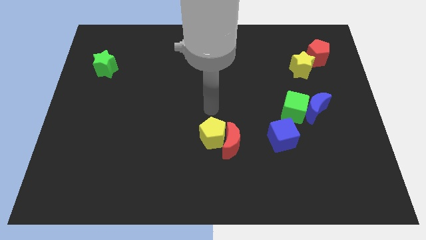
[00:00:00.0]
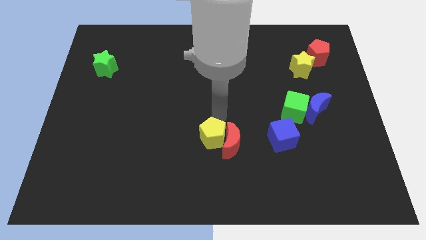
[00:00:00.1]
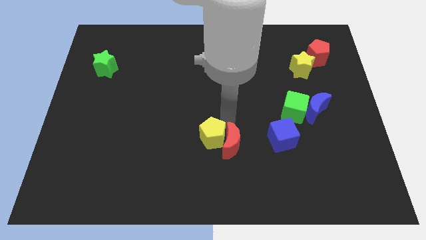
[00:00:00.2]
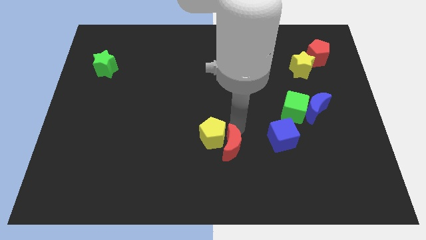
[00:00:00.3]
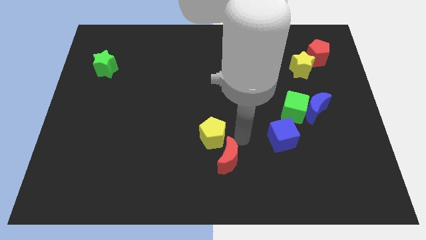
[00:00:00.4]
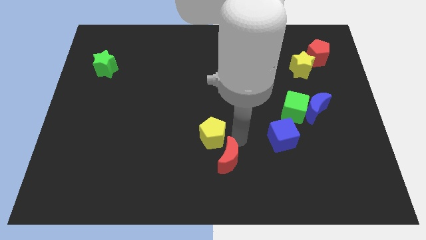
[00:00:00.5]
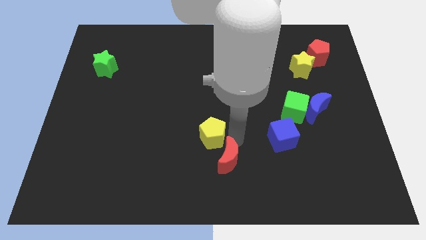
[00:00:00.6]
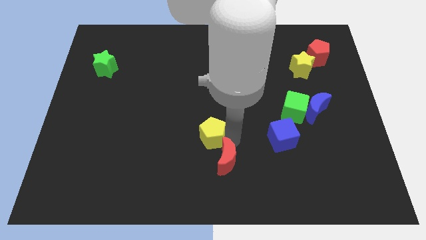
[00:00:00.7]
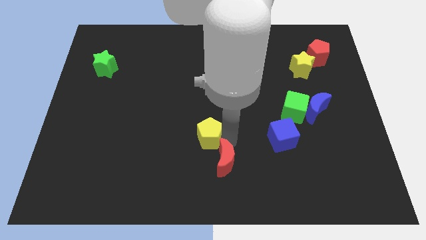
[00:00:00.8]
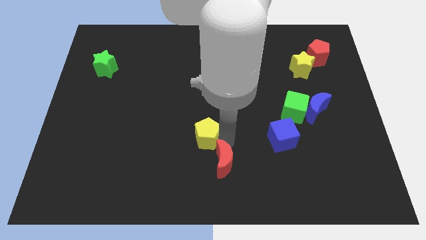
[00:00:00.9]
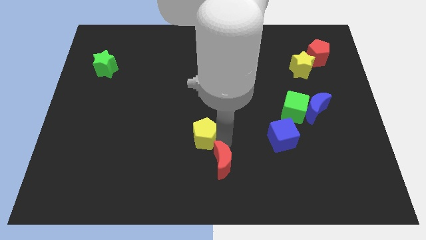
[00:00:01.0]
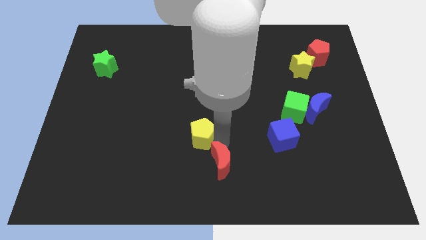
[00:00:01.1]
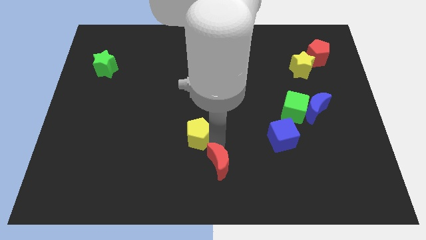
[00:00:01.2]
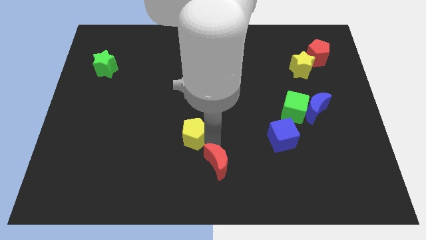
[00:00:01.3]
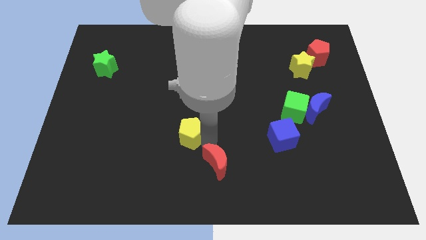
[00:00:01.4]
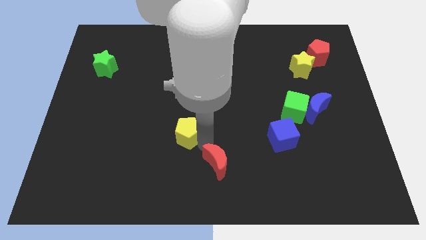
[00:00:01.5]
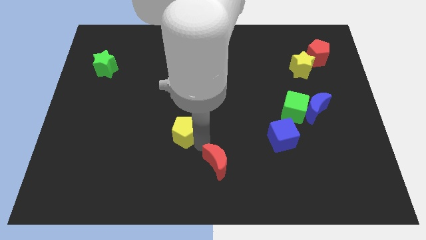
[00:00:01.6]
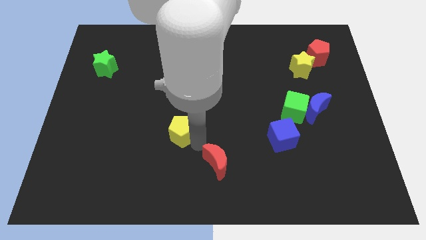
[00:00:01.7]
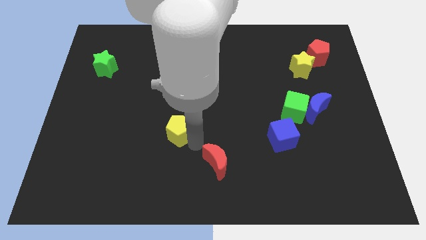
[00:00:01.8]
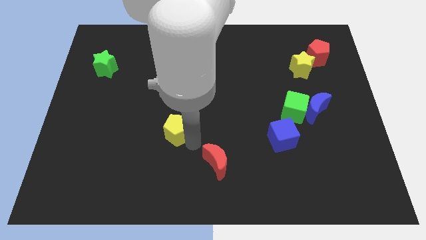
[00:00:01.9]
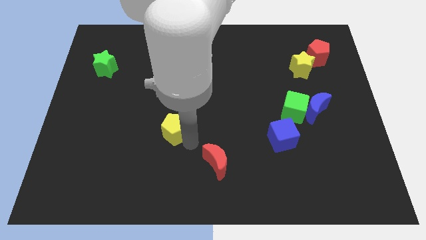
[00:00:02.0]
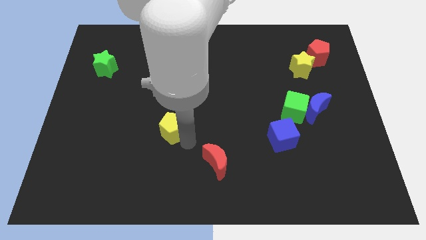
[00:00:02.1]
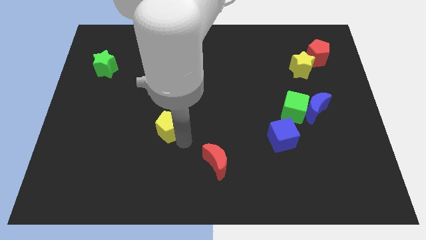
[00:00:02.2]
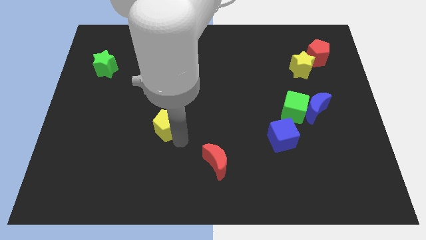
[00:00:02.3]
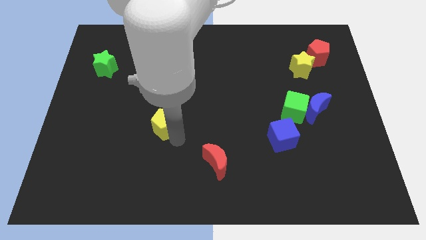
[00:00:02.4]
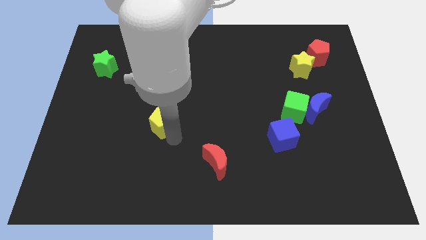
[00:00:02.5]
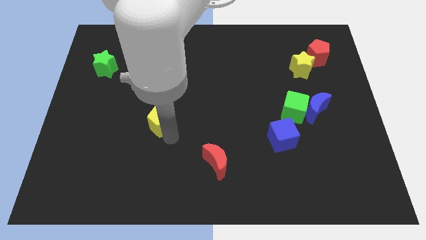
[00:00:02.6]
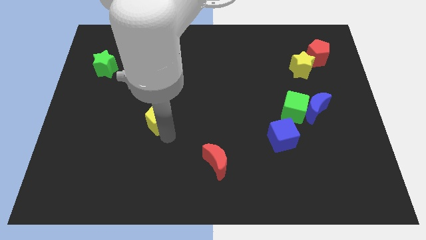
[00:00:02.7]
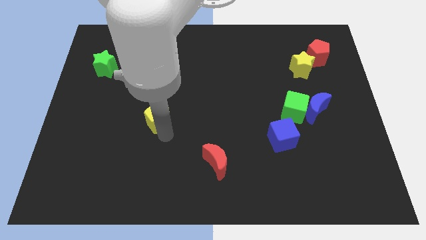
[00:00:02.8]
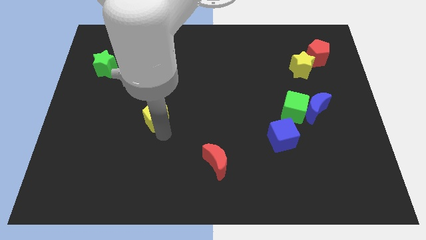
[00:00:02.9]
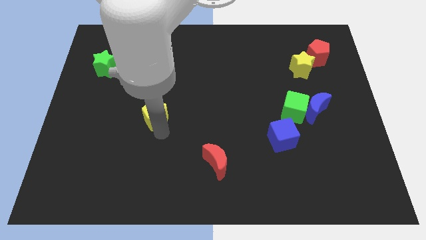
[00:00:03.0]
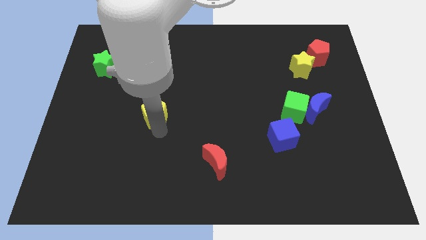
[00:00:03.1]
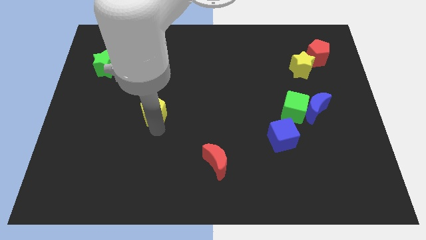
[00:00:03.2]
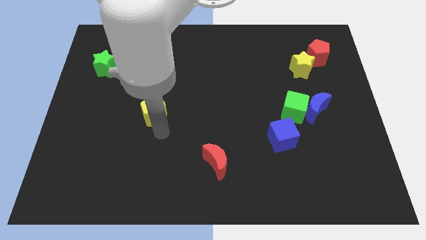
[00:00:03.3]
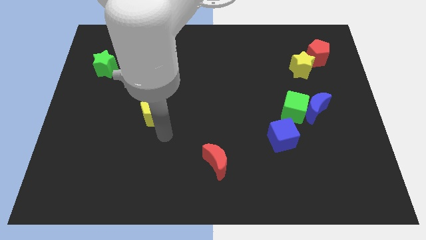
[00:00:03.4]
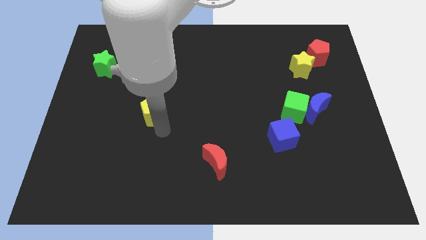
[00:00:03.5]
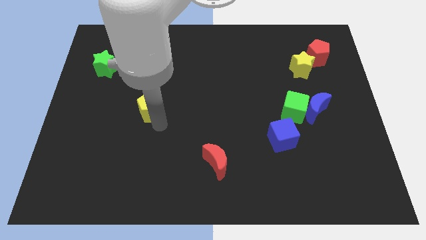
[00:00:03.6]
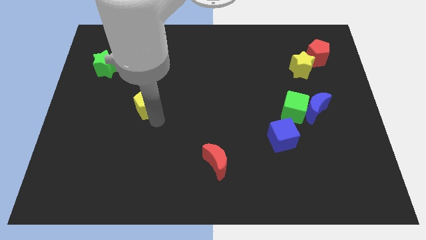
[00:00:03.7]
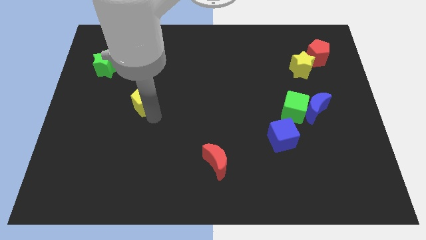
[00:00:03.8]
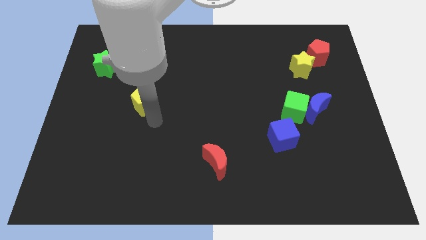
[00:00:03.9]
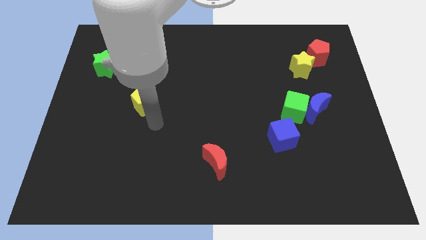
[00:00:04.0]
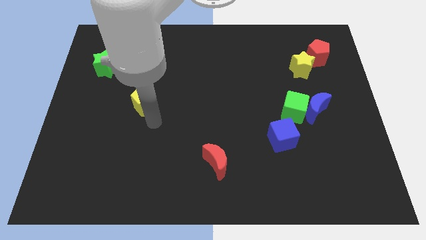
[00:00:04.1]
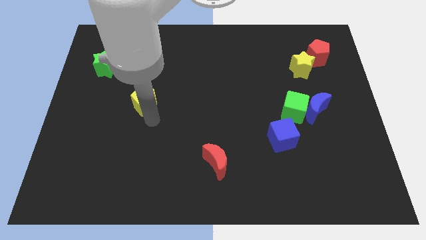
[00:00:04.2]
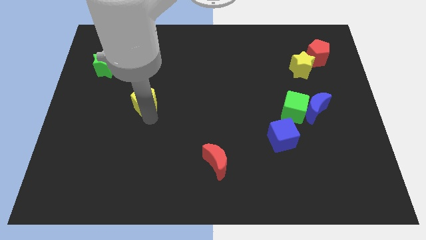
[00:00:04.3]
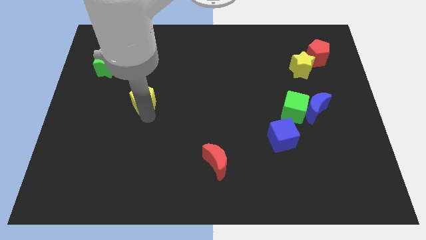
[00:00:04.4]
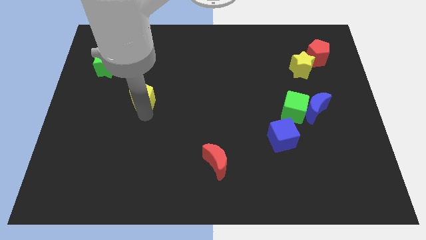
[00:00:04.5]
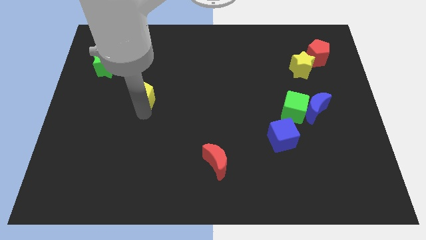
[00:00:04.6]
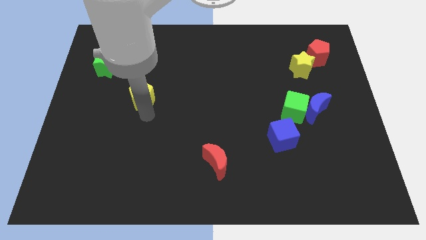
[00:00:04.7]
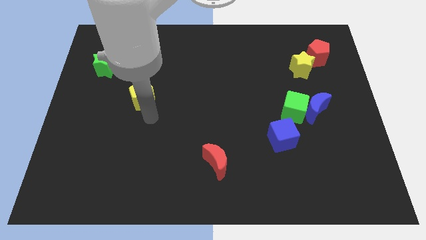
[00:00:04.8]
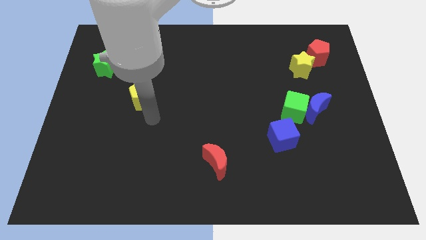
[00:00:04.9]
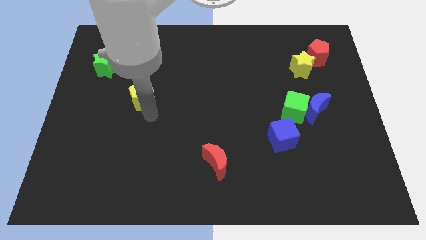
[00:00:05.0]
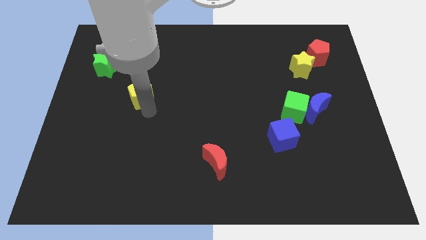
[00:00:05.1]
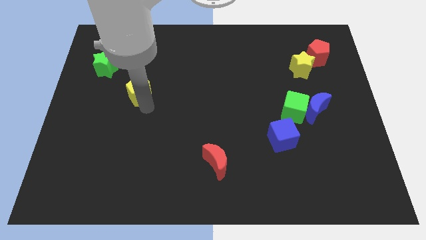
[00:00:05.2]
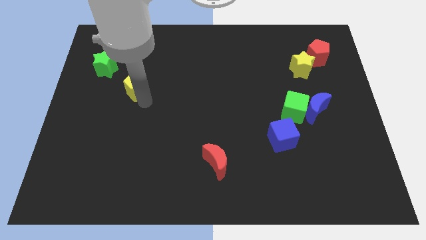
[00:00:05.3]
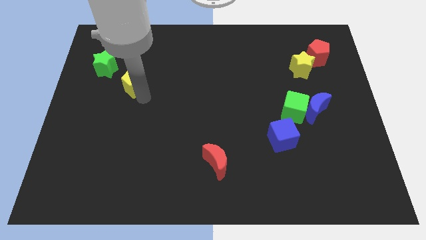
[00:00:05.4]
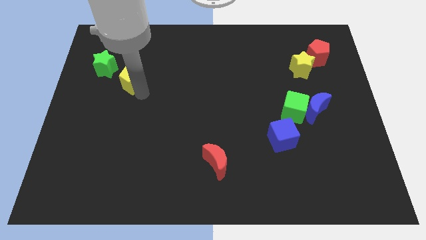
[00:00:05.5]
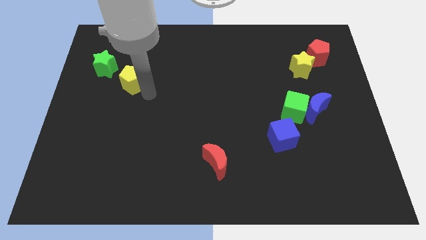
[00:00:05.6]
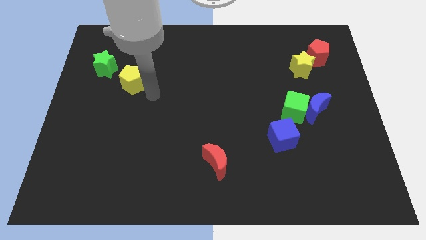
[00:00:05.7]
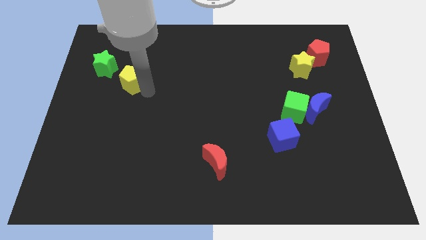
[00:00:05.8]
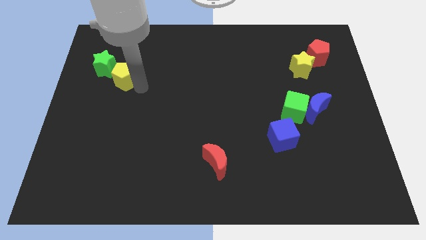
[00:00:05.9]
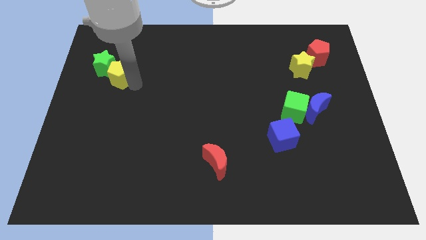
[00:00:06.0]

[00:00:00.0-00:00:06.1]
move the yellow pentagon to the green star

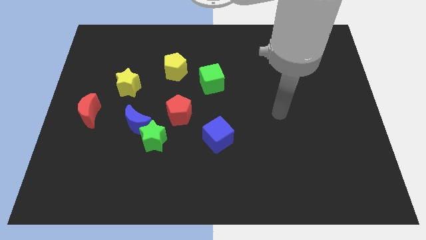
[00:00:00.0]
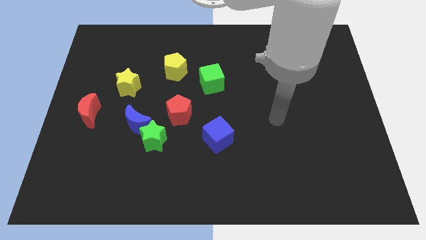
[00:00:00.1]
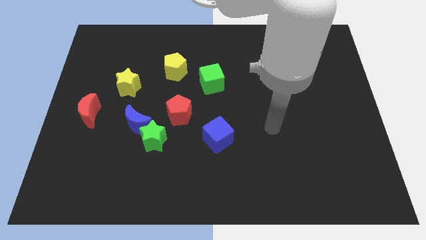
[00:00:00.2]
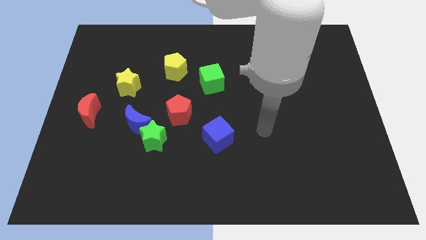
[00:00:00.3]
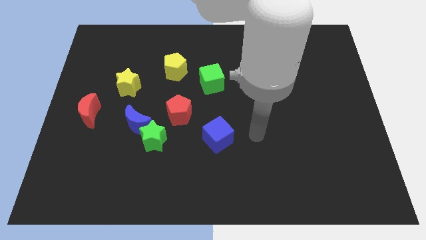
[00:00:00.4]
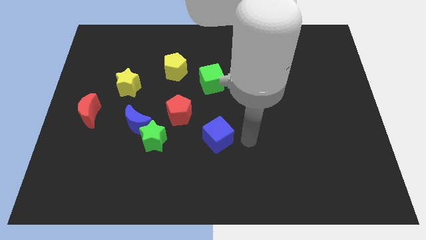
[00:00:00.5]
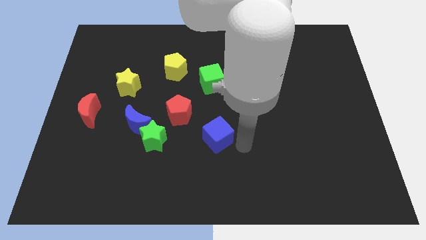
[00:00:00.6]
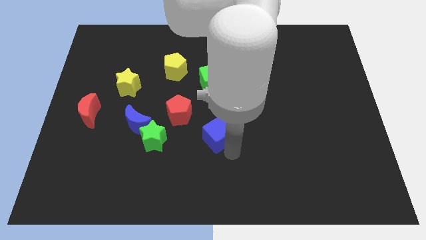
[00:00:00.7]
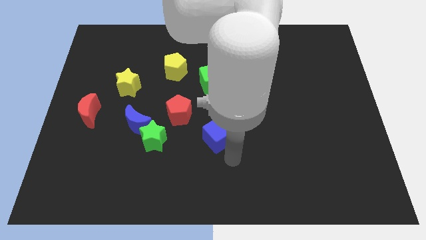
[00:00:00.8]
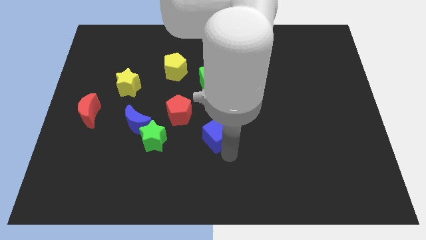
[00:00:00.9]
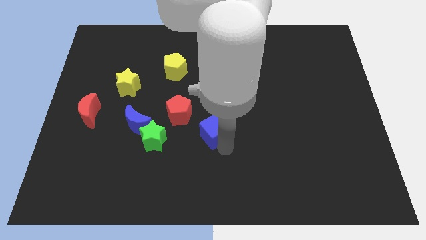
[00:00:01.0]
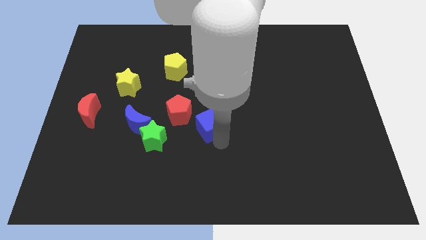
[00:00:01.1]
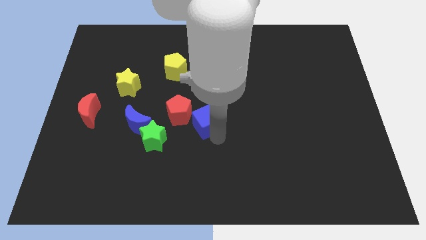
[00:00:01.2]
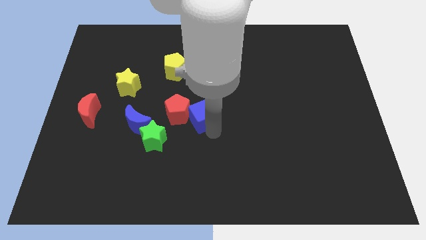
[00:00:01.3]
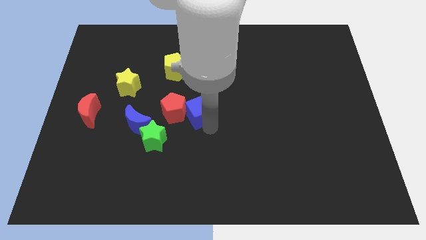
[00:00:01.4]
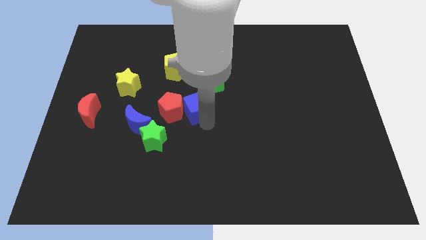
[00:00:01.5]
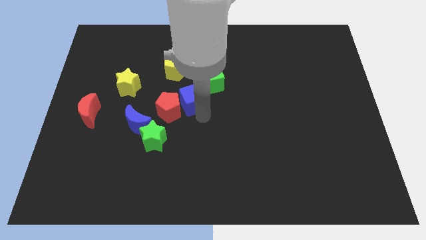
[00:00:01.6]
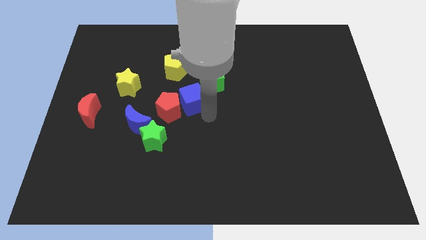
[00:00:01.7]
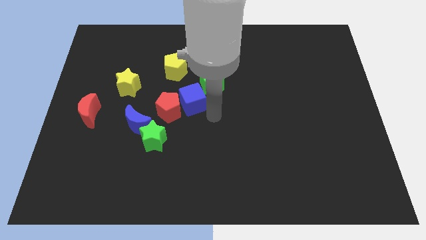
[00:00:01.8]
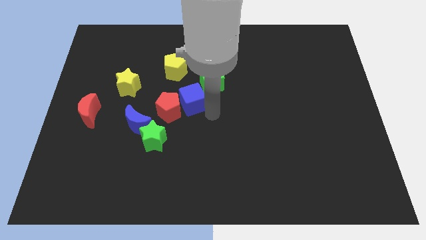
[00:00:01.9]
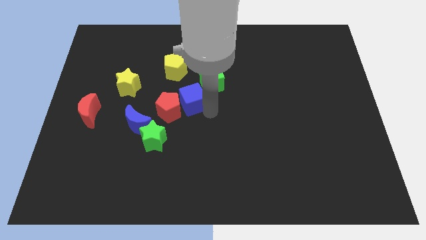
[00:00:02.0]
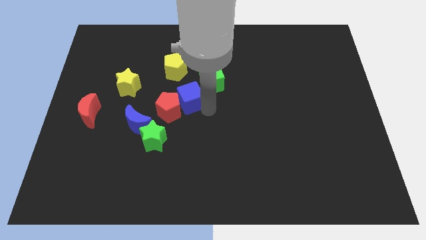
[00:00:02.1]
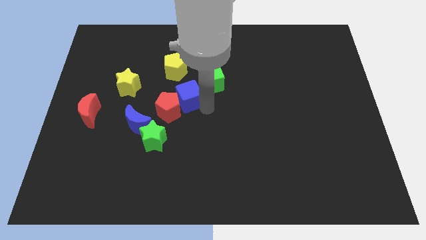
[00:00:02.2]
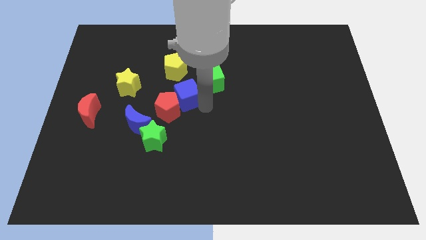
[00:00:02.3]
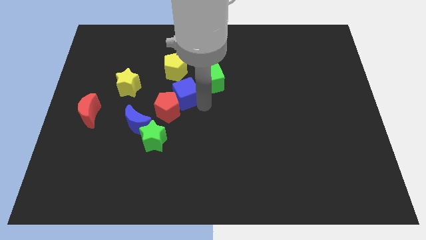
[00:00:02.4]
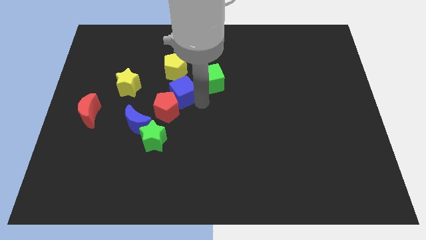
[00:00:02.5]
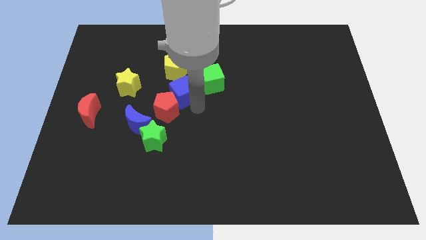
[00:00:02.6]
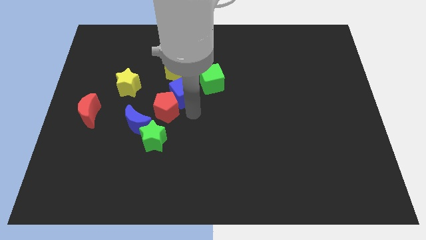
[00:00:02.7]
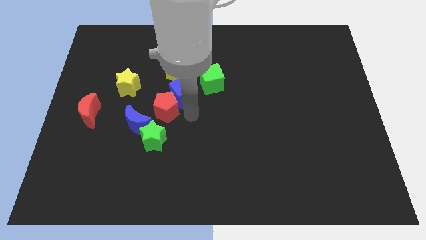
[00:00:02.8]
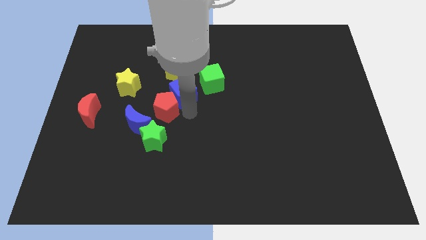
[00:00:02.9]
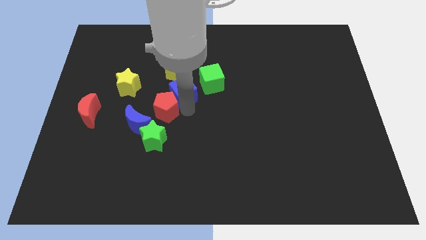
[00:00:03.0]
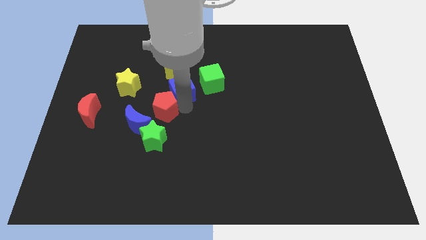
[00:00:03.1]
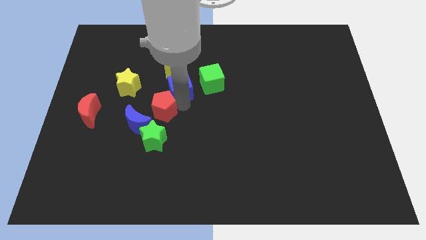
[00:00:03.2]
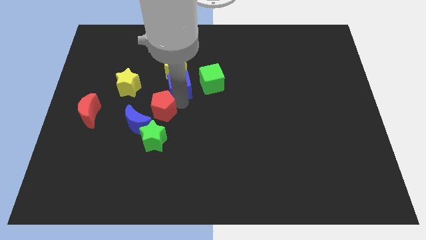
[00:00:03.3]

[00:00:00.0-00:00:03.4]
slide the blue cube to the yellow pentagon
